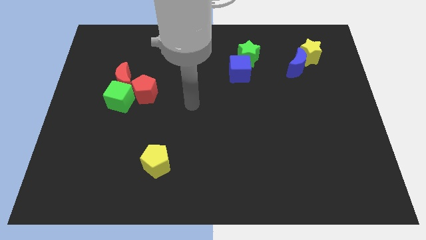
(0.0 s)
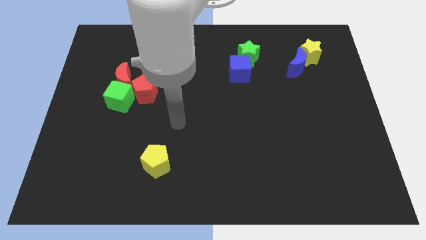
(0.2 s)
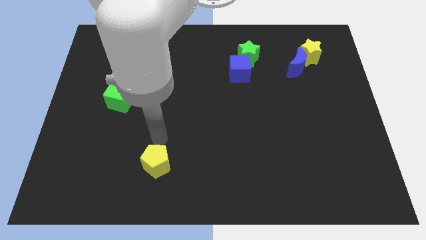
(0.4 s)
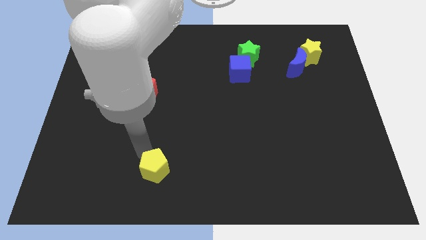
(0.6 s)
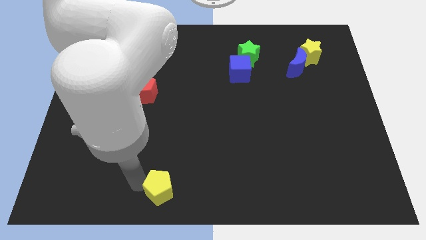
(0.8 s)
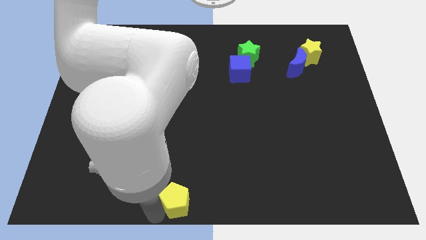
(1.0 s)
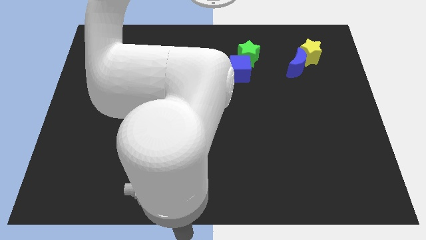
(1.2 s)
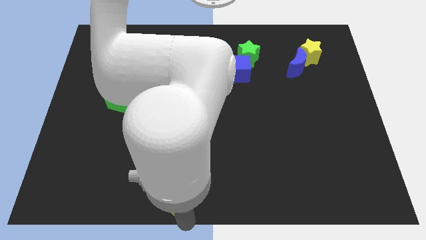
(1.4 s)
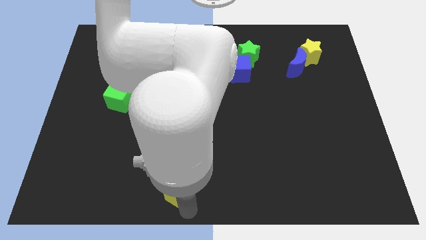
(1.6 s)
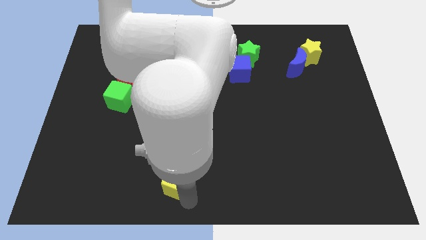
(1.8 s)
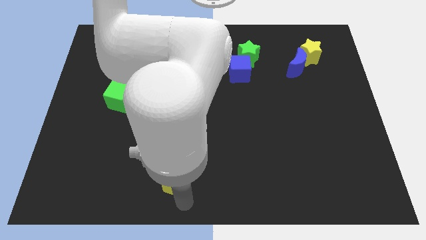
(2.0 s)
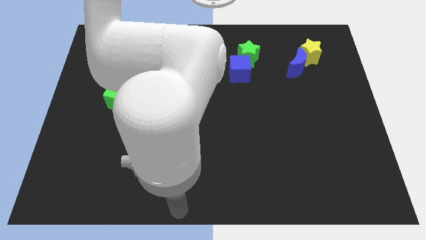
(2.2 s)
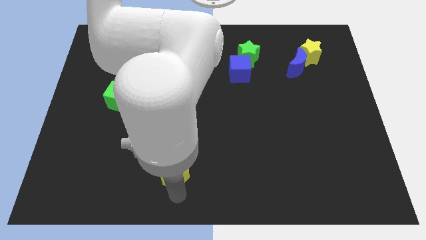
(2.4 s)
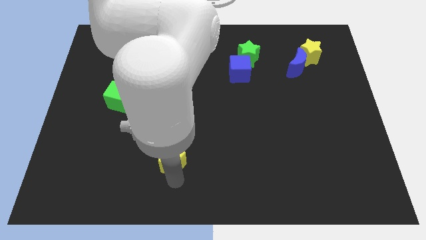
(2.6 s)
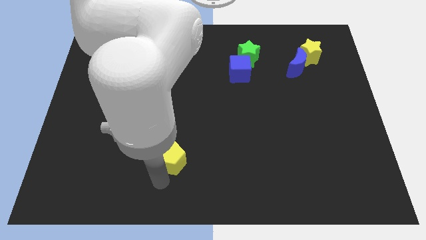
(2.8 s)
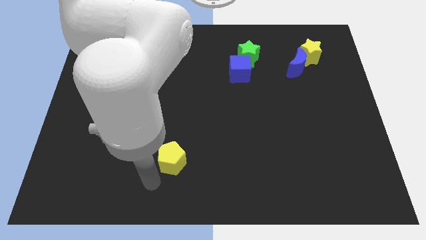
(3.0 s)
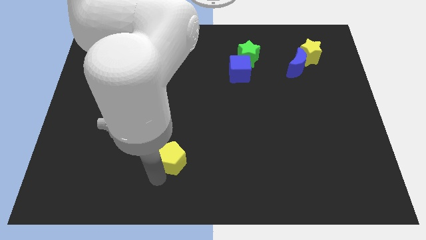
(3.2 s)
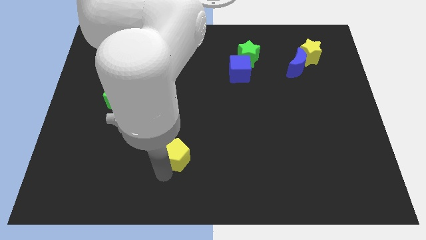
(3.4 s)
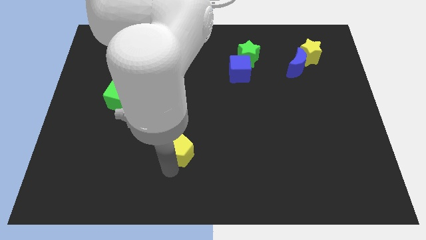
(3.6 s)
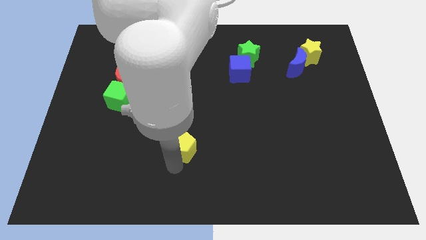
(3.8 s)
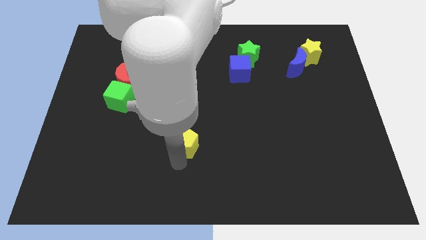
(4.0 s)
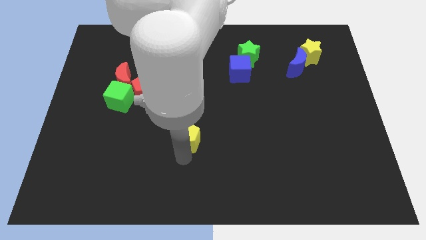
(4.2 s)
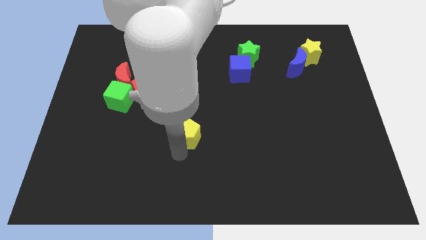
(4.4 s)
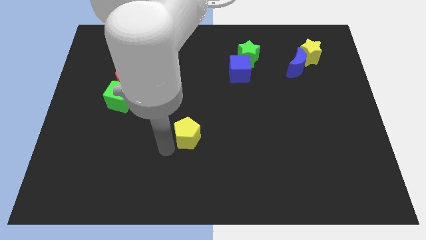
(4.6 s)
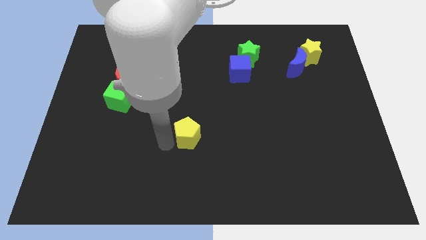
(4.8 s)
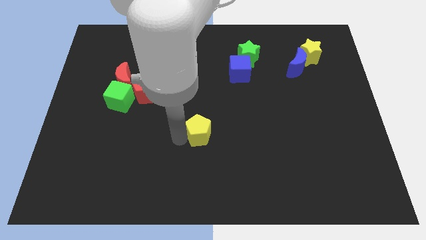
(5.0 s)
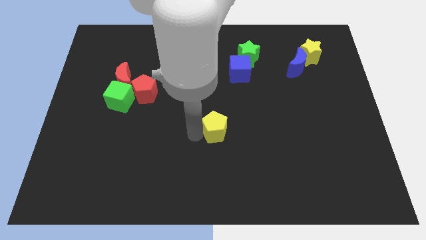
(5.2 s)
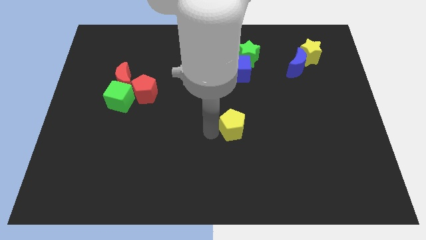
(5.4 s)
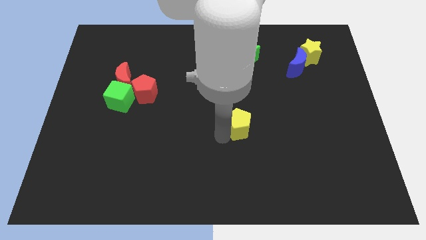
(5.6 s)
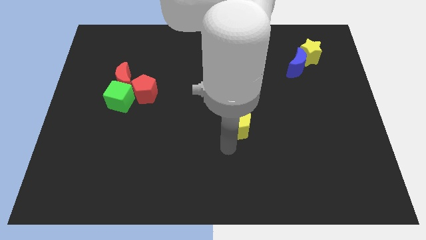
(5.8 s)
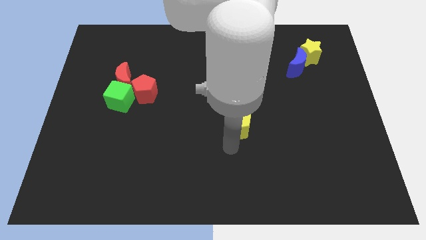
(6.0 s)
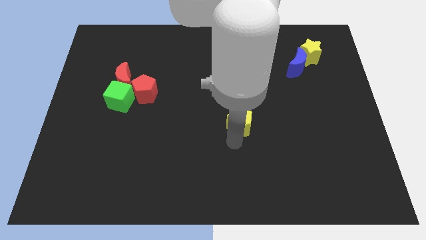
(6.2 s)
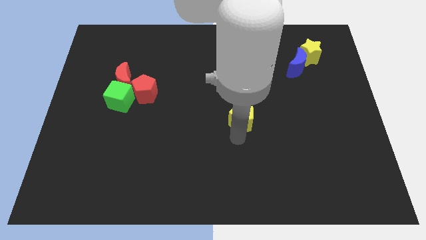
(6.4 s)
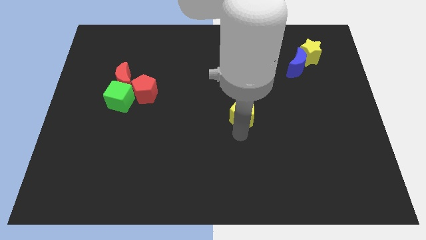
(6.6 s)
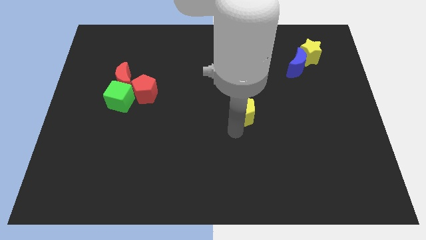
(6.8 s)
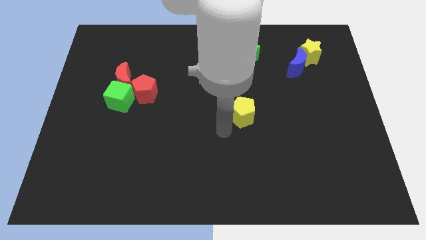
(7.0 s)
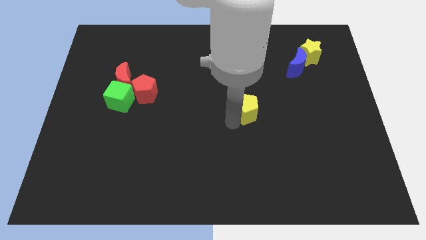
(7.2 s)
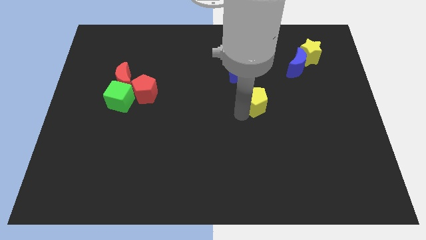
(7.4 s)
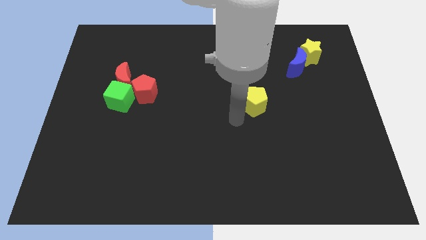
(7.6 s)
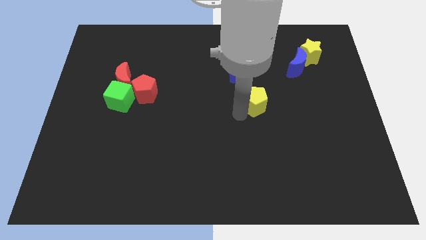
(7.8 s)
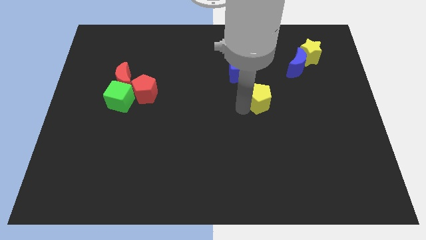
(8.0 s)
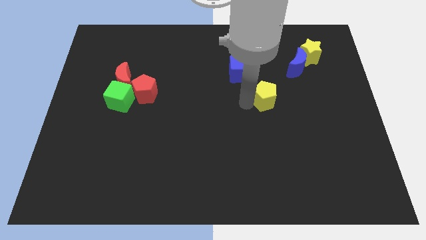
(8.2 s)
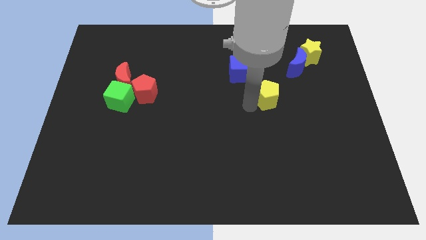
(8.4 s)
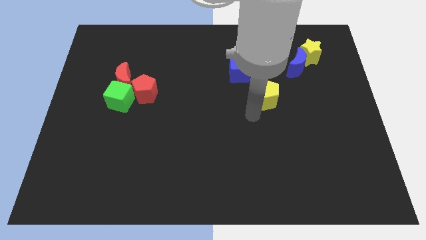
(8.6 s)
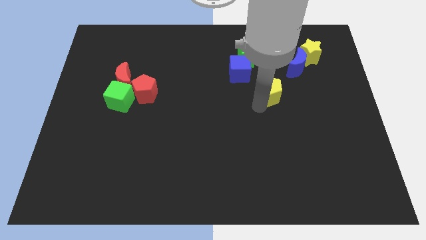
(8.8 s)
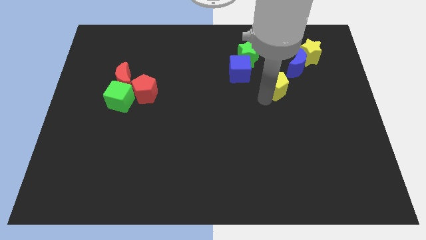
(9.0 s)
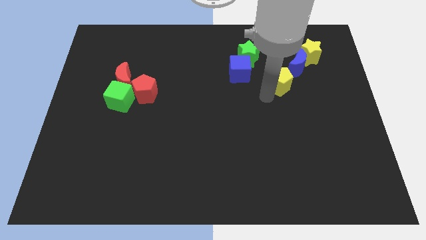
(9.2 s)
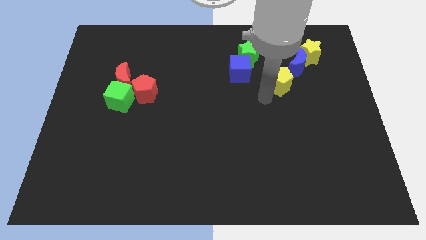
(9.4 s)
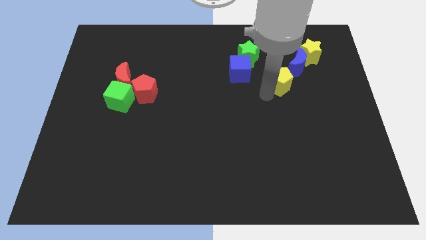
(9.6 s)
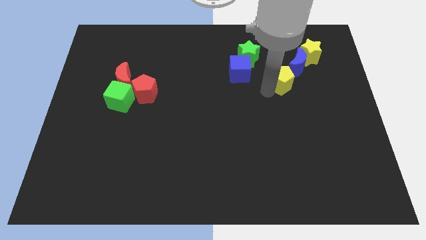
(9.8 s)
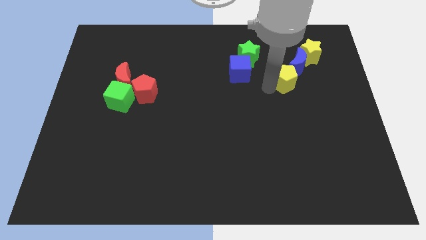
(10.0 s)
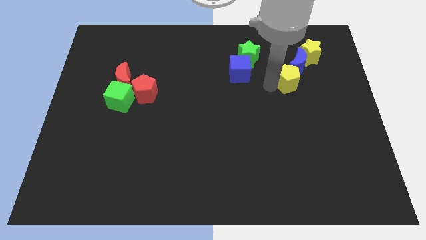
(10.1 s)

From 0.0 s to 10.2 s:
push the yellow pentagon next to the blue moon

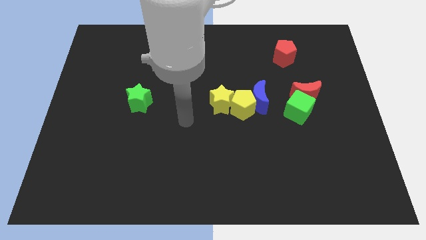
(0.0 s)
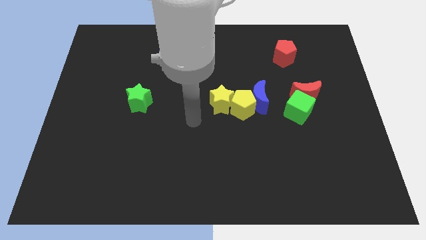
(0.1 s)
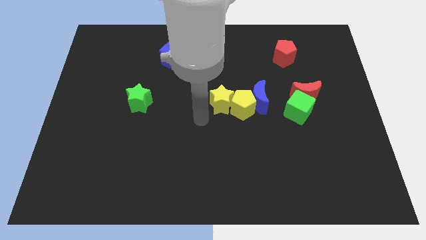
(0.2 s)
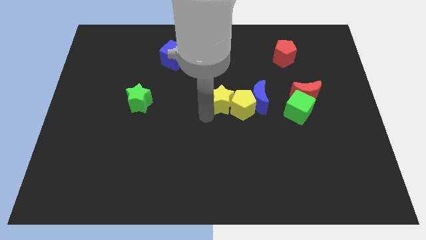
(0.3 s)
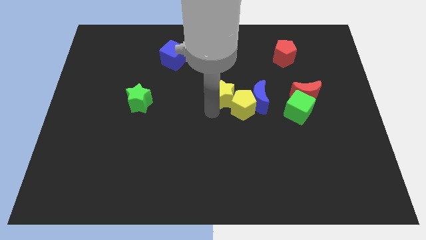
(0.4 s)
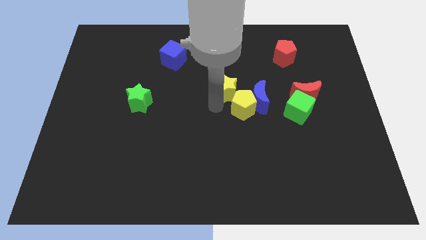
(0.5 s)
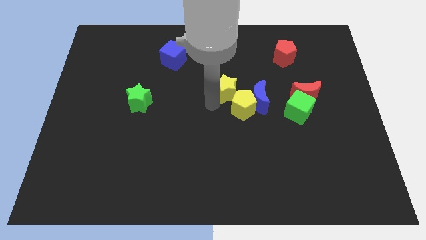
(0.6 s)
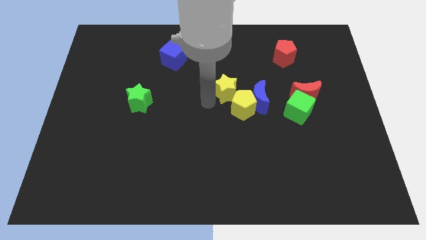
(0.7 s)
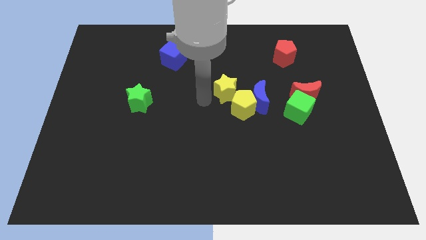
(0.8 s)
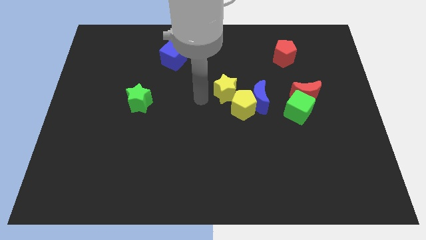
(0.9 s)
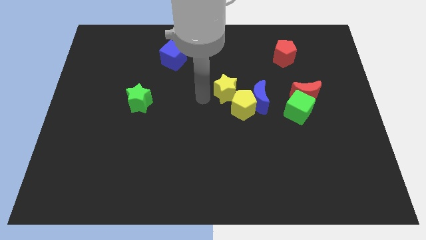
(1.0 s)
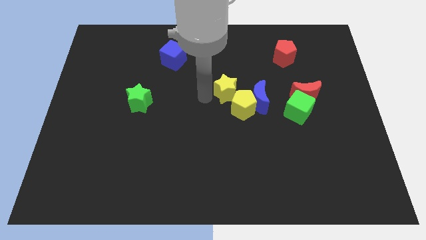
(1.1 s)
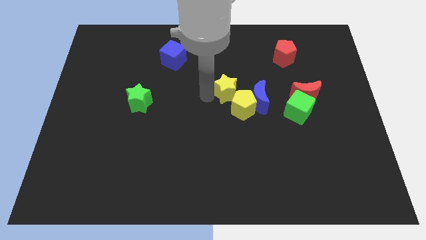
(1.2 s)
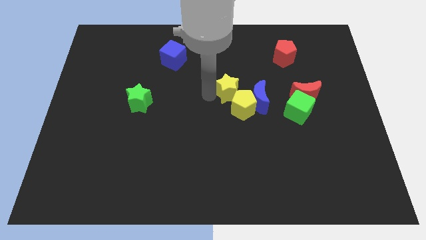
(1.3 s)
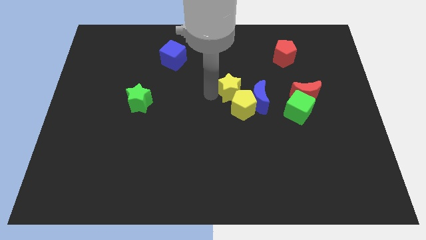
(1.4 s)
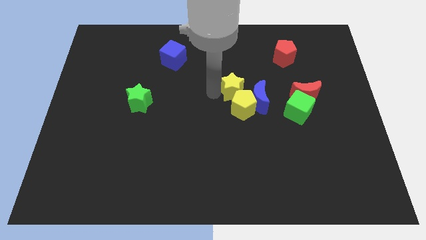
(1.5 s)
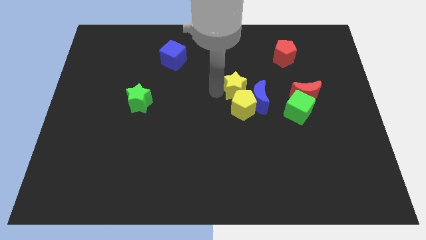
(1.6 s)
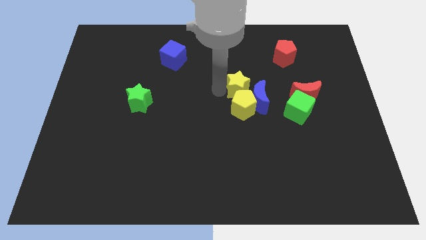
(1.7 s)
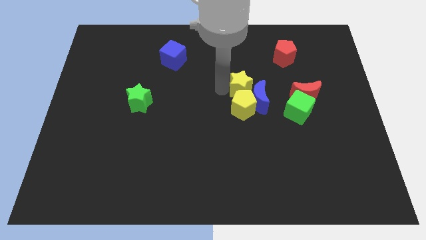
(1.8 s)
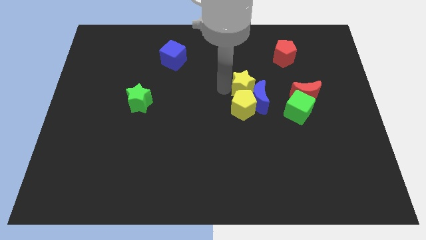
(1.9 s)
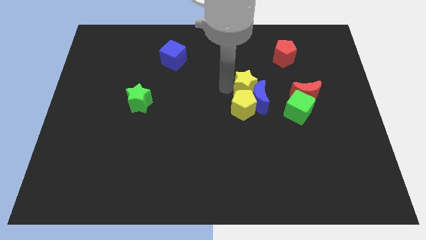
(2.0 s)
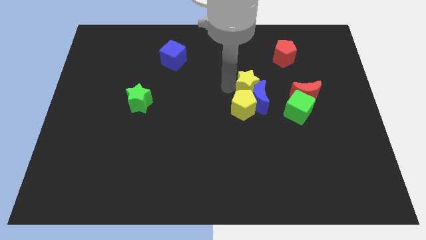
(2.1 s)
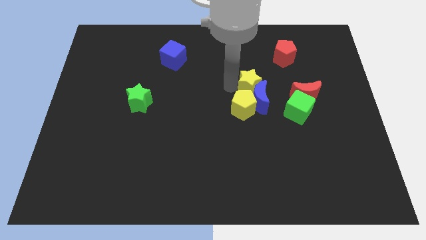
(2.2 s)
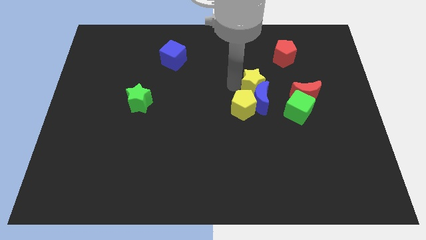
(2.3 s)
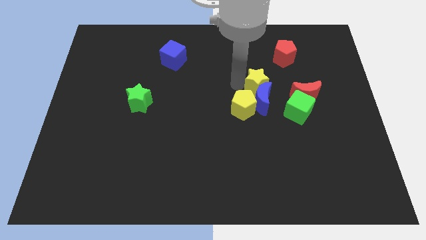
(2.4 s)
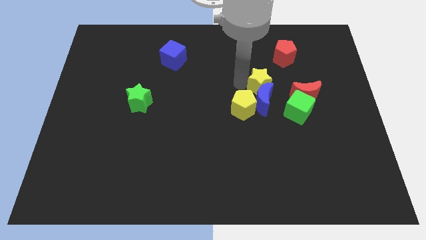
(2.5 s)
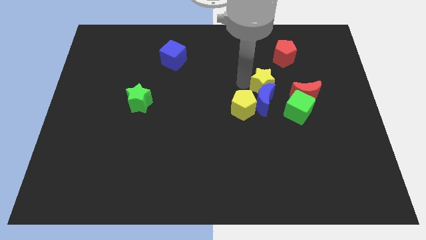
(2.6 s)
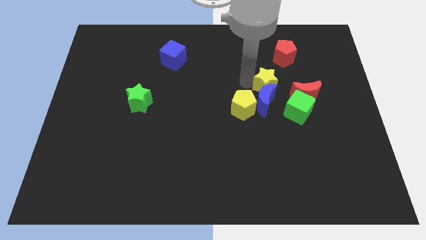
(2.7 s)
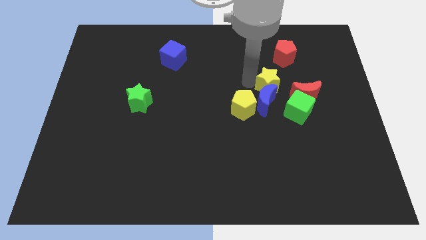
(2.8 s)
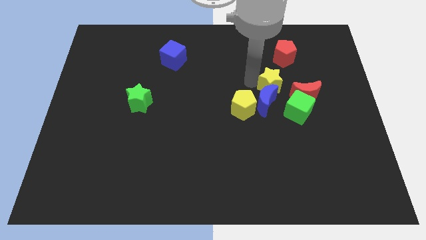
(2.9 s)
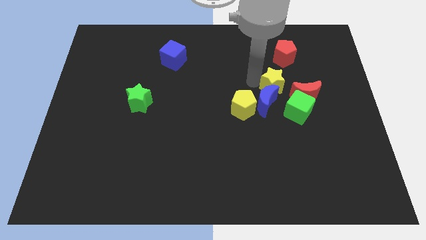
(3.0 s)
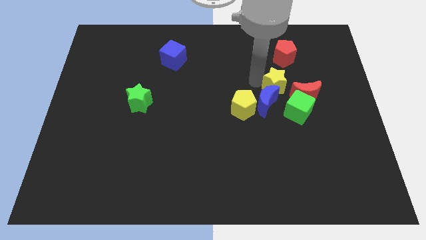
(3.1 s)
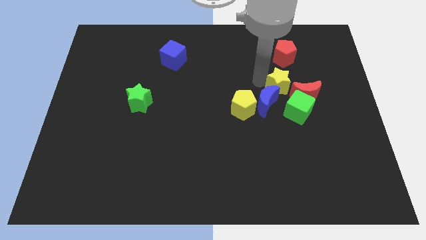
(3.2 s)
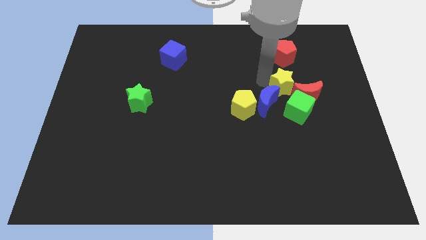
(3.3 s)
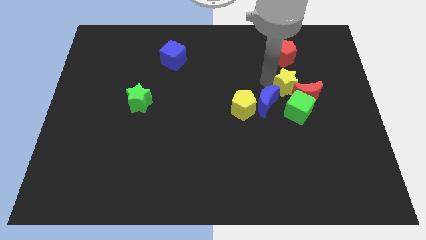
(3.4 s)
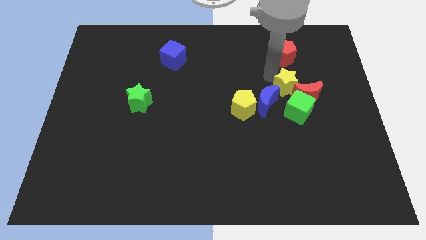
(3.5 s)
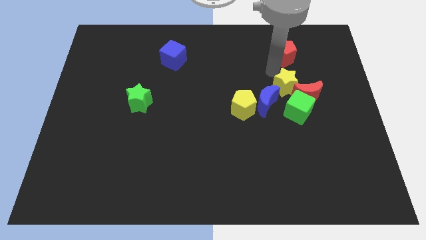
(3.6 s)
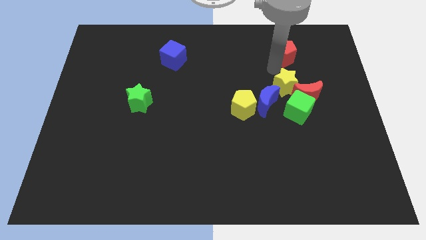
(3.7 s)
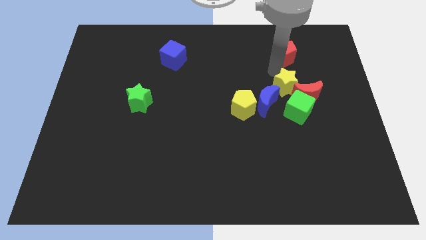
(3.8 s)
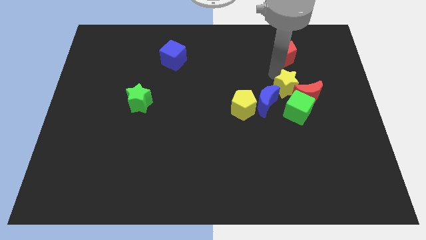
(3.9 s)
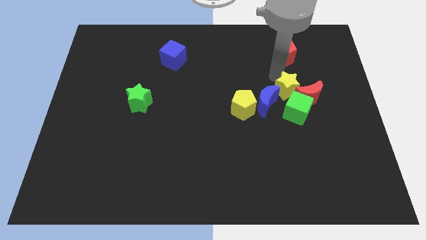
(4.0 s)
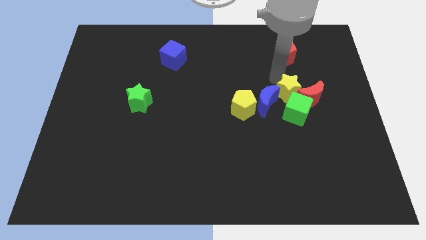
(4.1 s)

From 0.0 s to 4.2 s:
move the yellow star to the green cube
